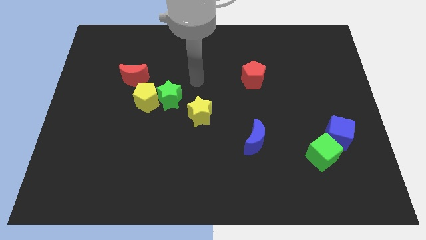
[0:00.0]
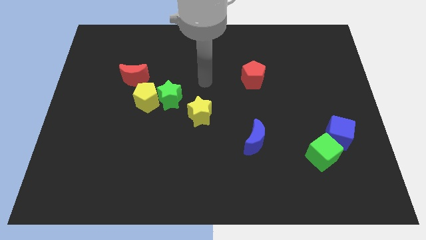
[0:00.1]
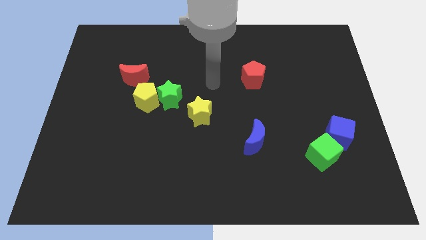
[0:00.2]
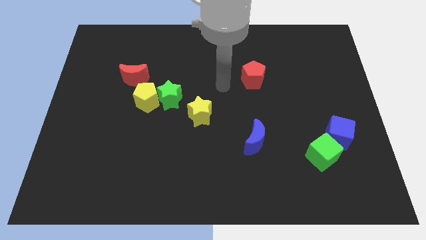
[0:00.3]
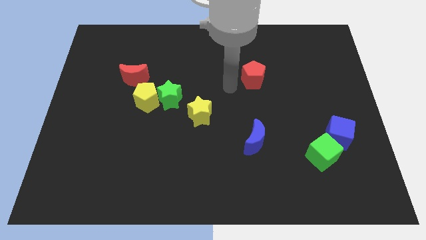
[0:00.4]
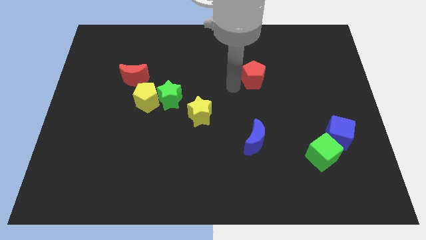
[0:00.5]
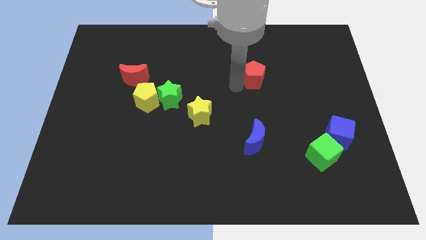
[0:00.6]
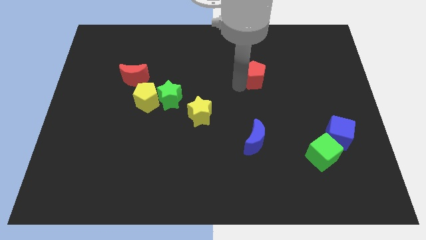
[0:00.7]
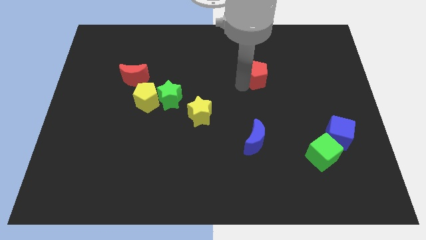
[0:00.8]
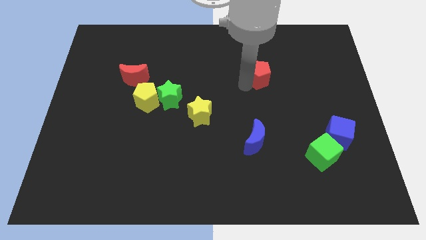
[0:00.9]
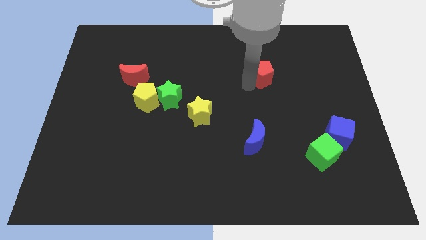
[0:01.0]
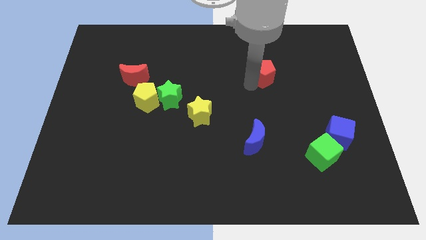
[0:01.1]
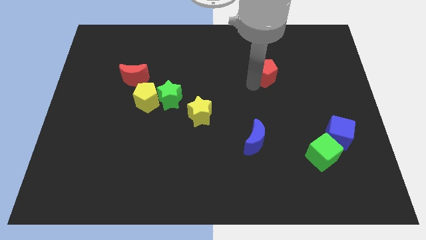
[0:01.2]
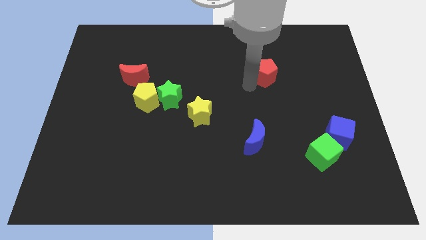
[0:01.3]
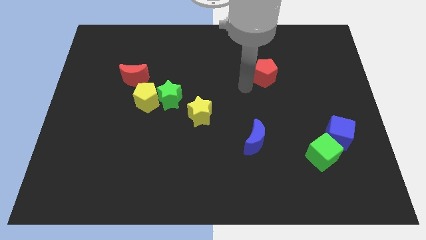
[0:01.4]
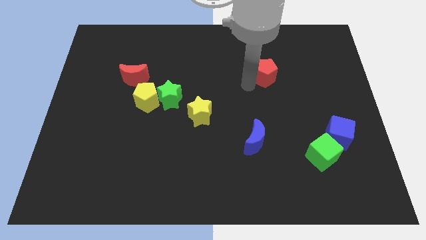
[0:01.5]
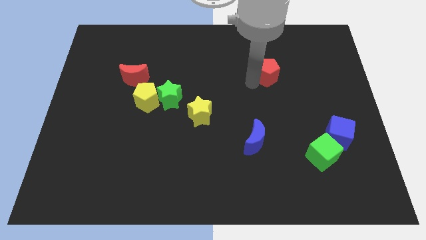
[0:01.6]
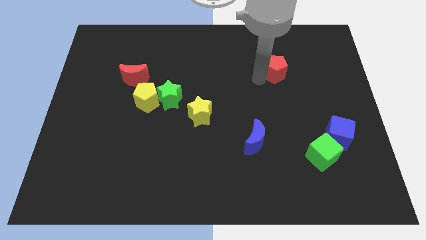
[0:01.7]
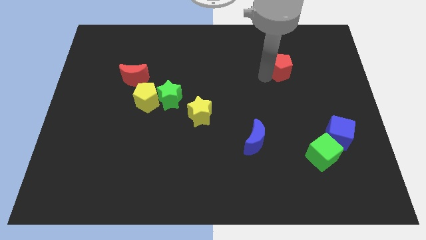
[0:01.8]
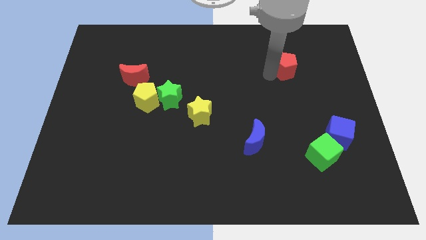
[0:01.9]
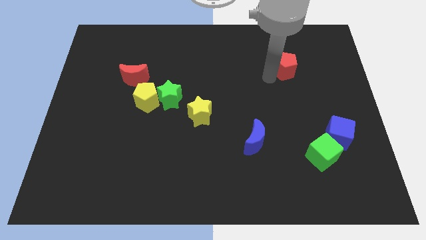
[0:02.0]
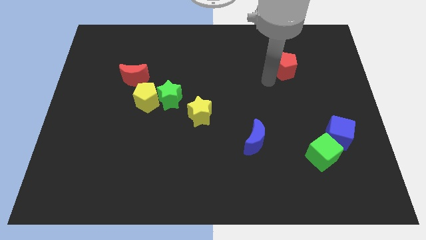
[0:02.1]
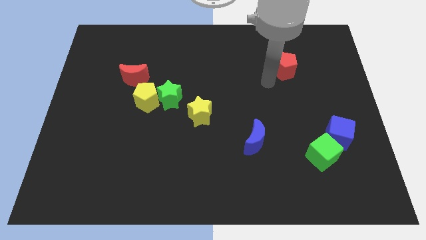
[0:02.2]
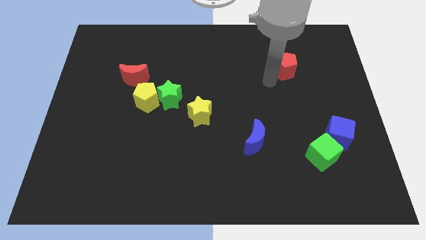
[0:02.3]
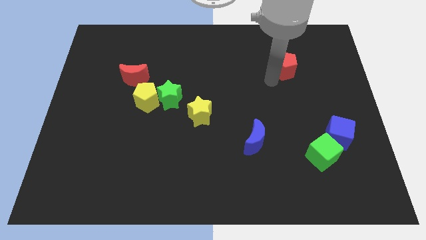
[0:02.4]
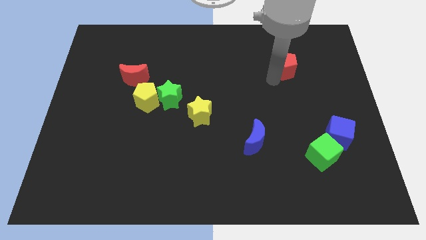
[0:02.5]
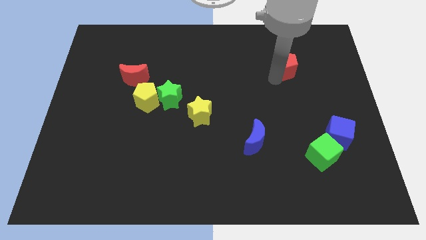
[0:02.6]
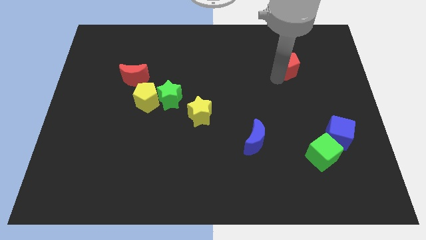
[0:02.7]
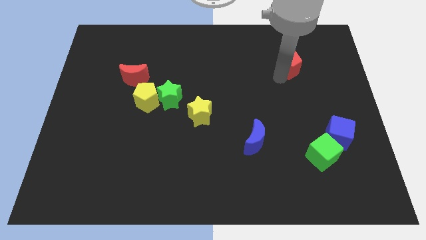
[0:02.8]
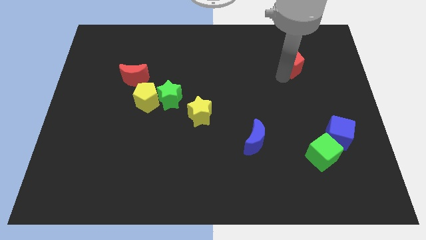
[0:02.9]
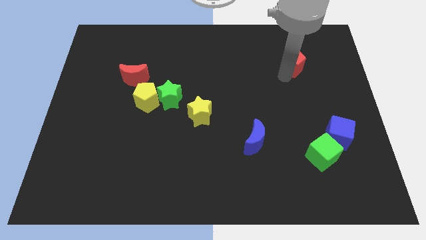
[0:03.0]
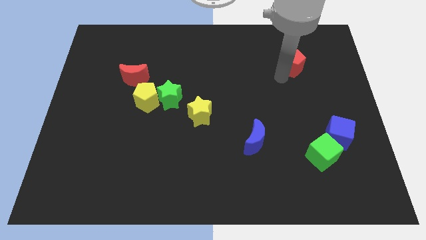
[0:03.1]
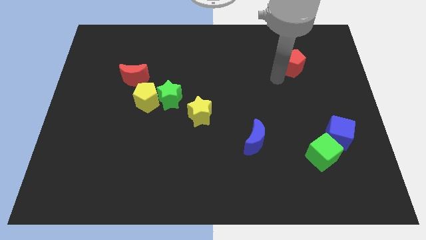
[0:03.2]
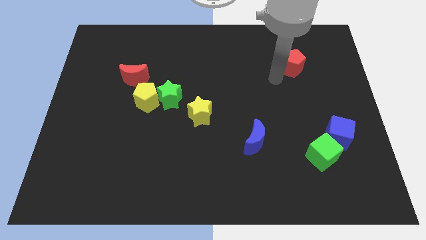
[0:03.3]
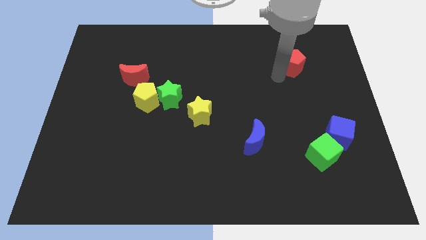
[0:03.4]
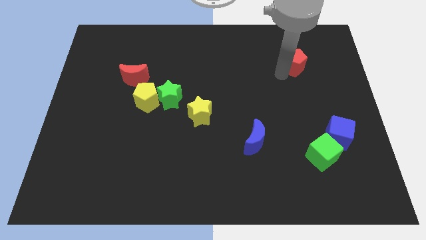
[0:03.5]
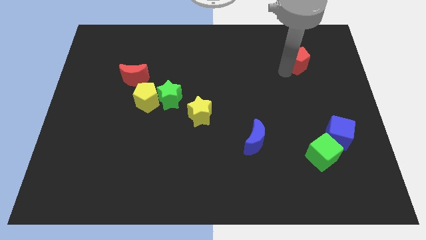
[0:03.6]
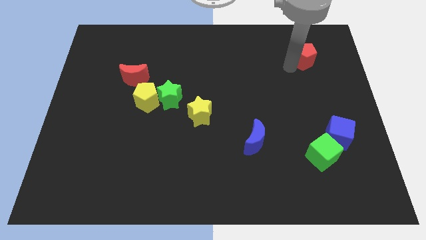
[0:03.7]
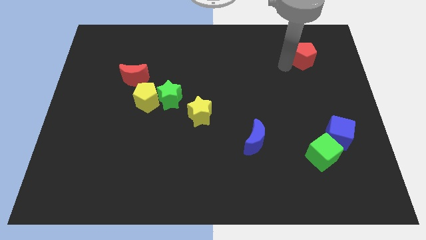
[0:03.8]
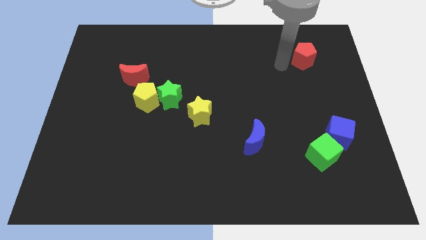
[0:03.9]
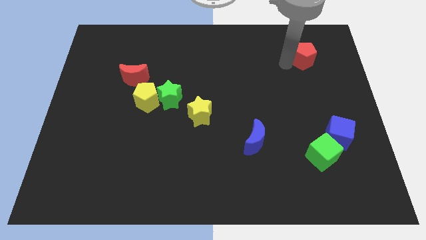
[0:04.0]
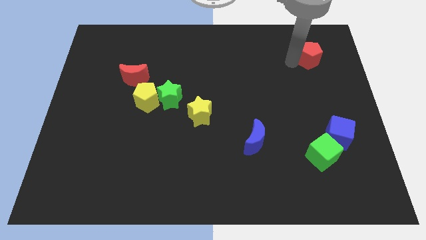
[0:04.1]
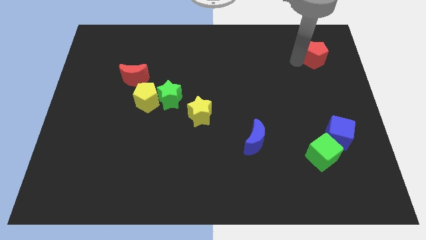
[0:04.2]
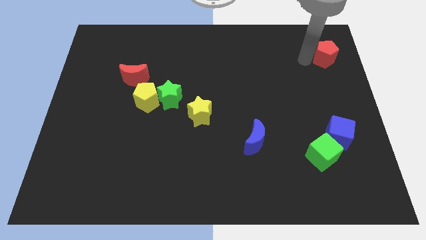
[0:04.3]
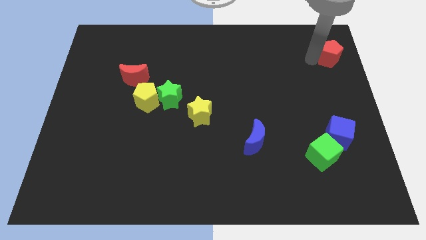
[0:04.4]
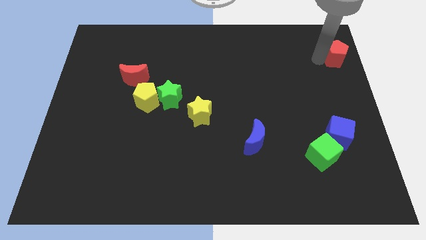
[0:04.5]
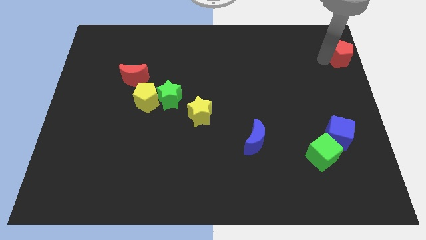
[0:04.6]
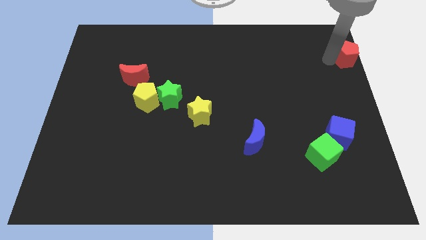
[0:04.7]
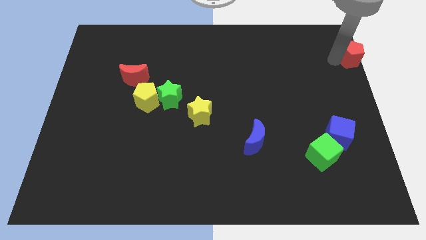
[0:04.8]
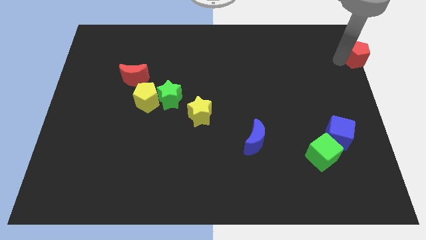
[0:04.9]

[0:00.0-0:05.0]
slide the red pentagon to the top right

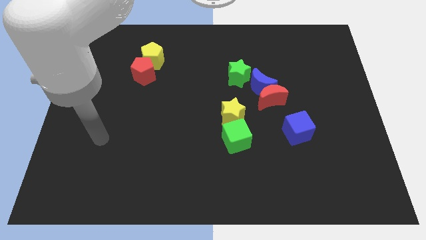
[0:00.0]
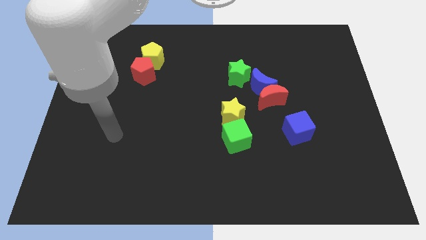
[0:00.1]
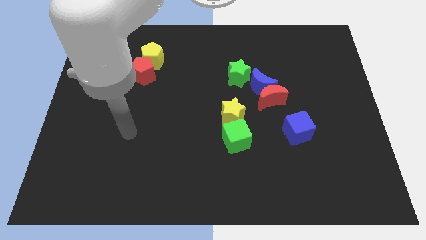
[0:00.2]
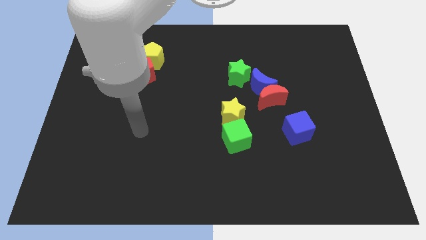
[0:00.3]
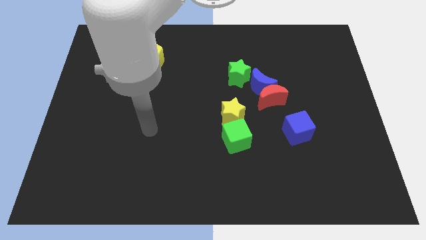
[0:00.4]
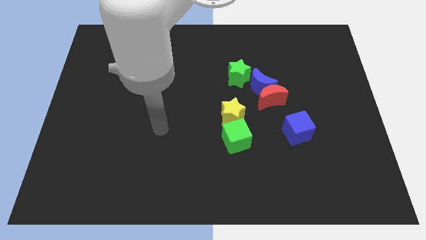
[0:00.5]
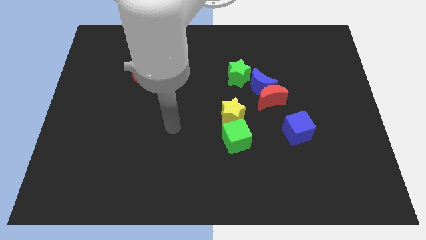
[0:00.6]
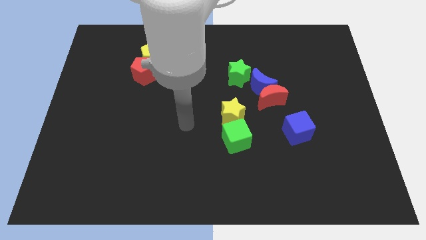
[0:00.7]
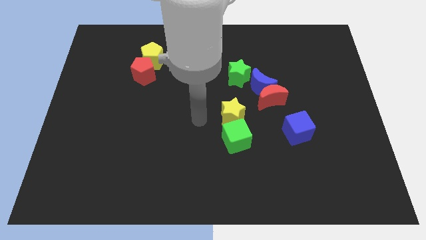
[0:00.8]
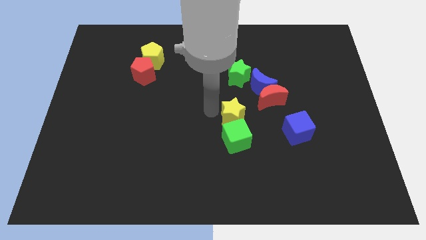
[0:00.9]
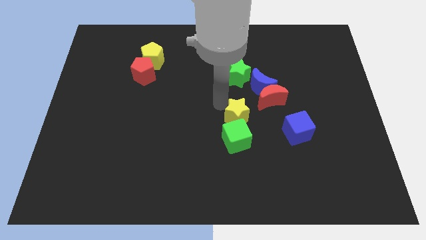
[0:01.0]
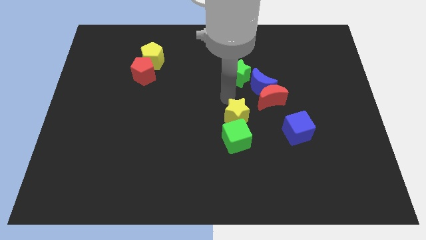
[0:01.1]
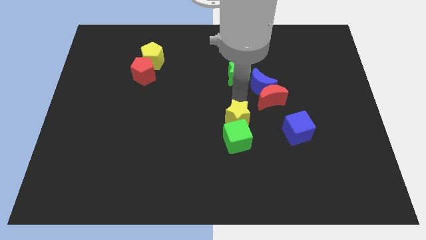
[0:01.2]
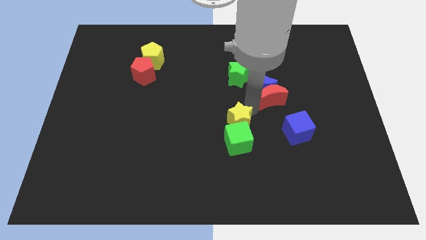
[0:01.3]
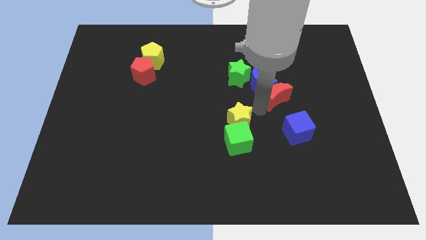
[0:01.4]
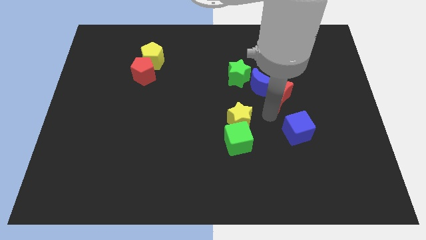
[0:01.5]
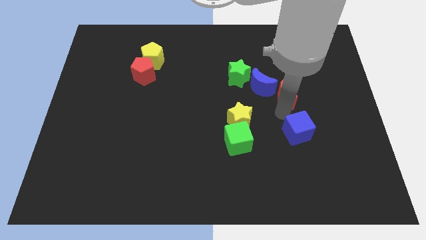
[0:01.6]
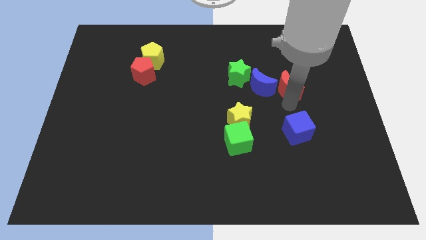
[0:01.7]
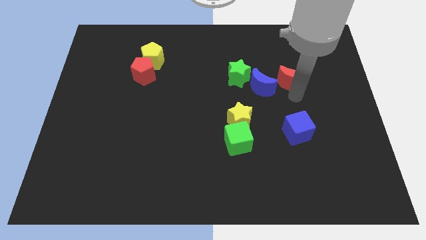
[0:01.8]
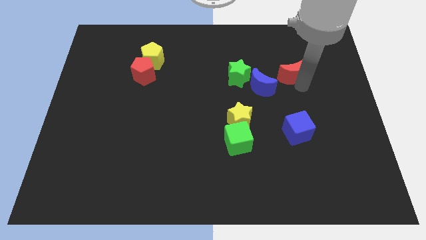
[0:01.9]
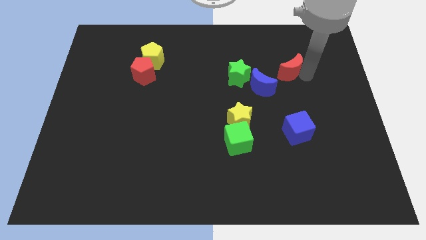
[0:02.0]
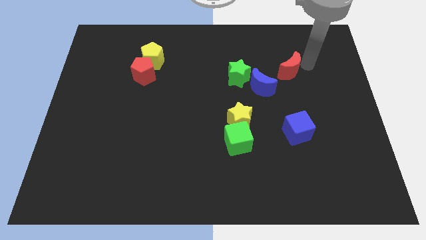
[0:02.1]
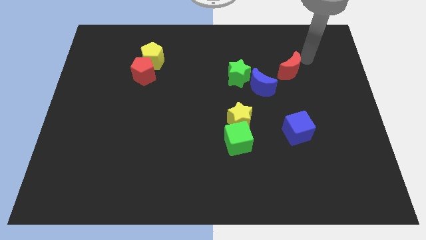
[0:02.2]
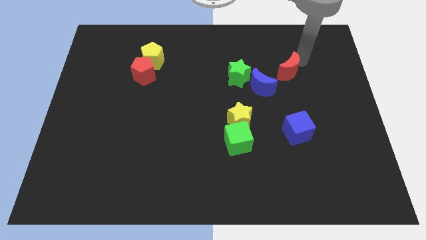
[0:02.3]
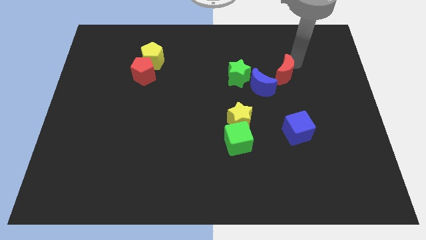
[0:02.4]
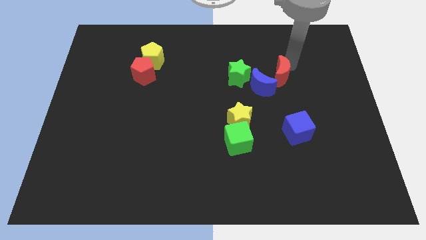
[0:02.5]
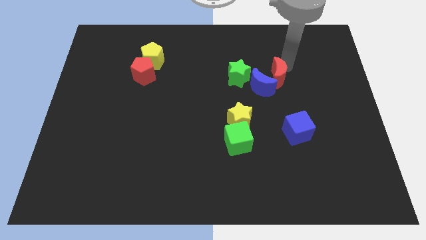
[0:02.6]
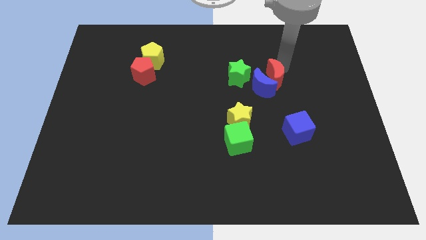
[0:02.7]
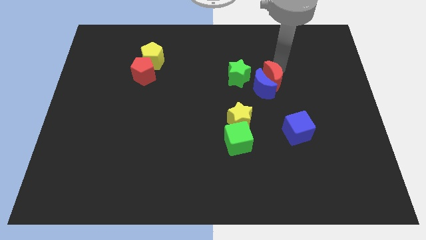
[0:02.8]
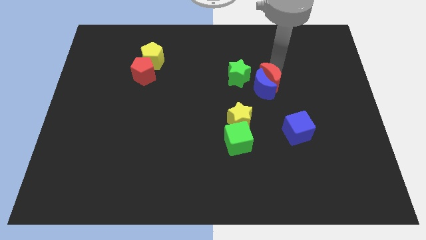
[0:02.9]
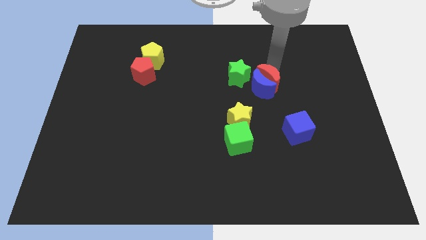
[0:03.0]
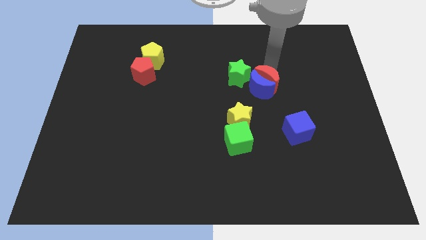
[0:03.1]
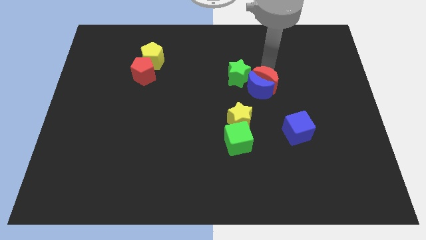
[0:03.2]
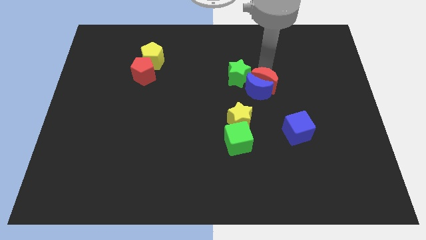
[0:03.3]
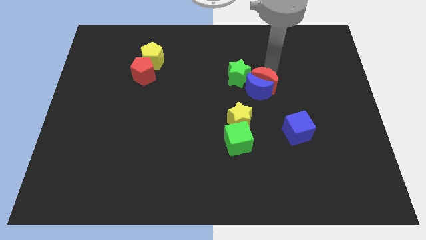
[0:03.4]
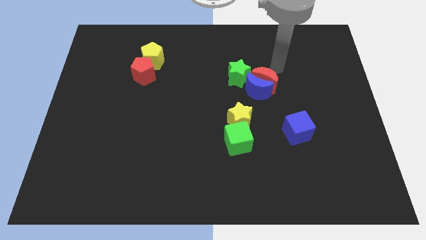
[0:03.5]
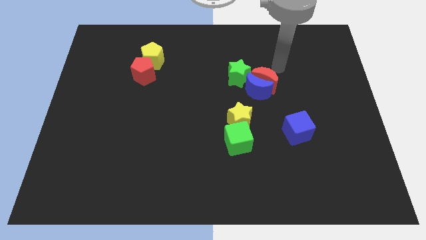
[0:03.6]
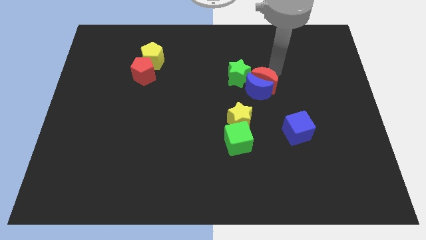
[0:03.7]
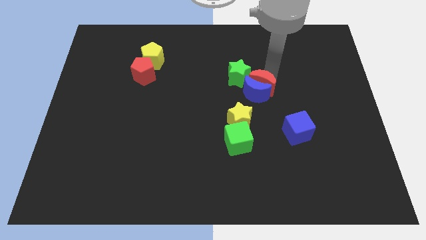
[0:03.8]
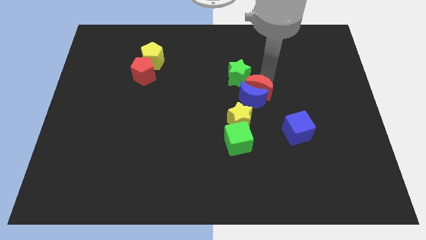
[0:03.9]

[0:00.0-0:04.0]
move the red moon to the middle of the board
